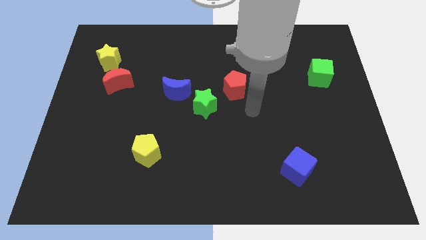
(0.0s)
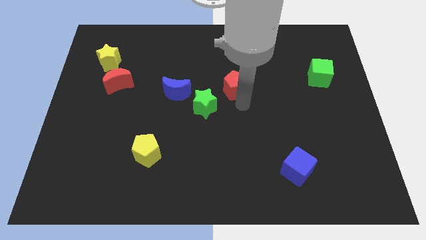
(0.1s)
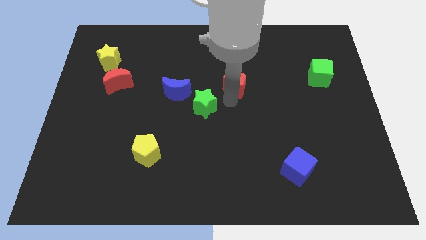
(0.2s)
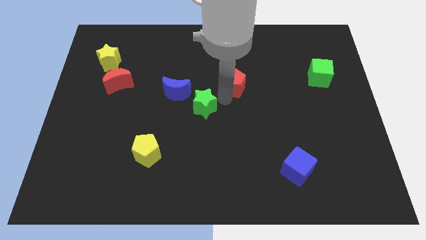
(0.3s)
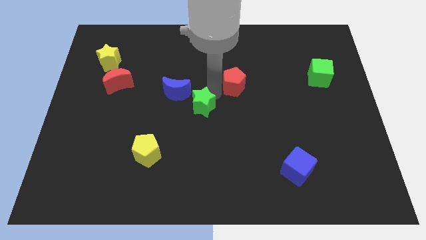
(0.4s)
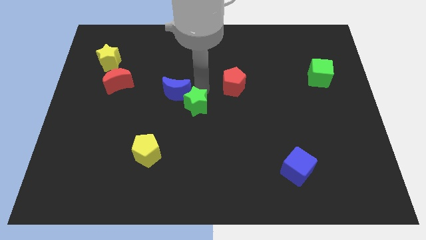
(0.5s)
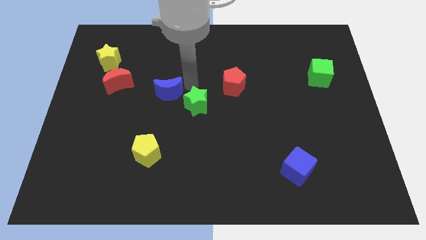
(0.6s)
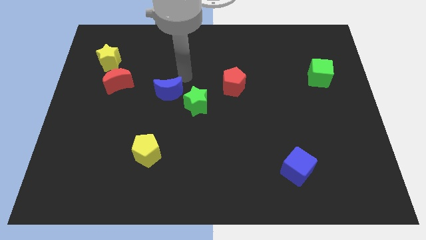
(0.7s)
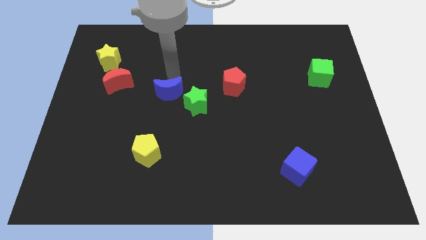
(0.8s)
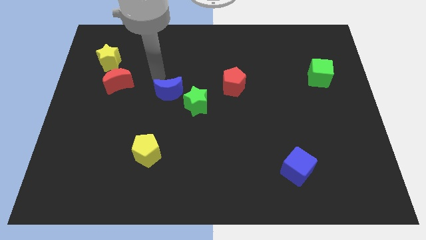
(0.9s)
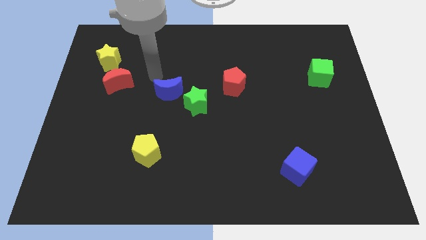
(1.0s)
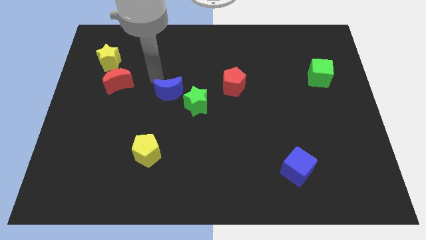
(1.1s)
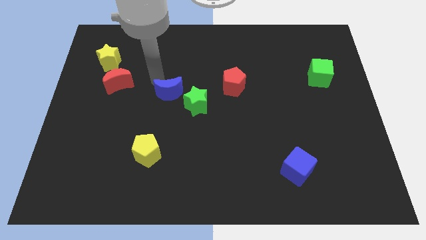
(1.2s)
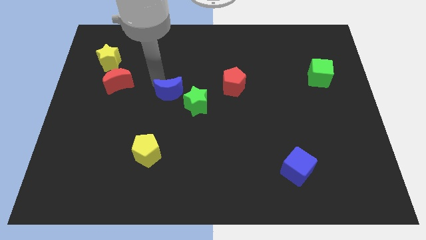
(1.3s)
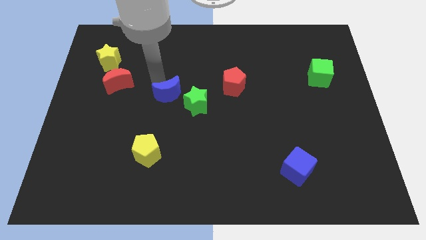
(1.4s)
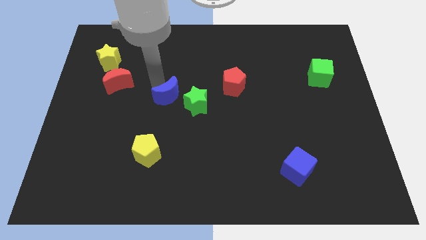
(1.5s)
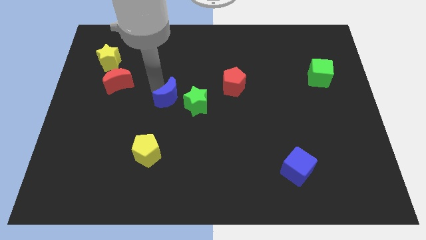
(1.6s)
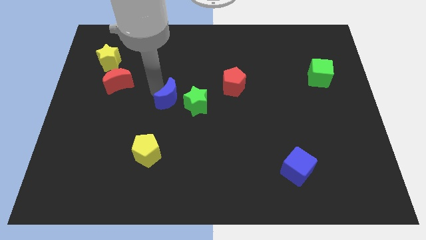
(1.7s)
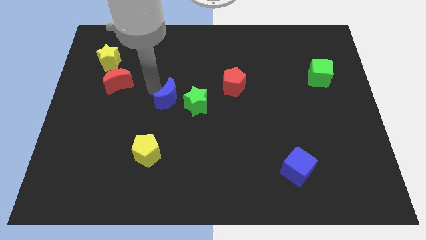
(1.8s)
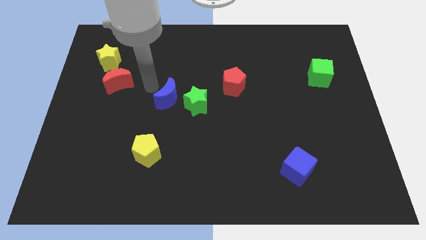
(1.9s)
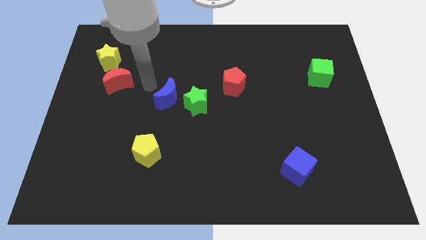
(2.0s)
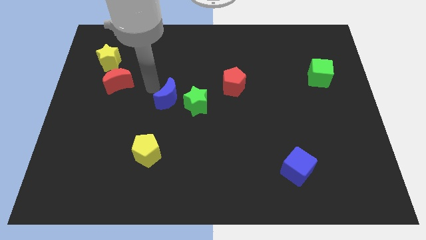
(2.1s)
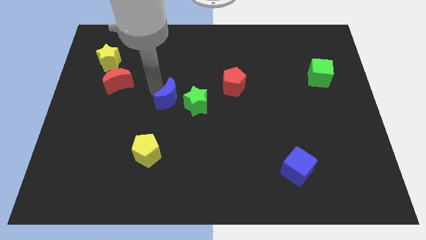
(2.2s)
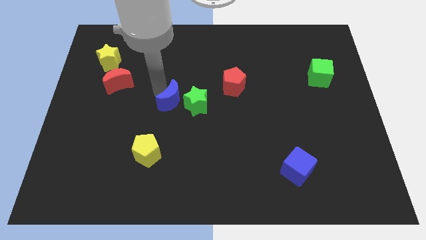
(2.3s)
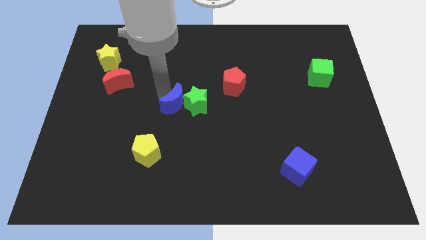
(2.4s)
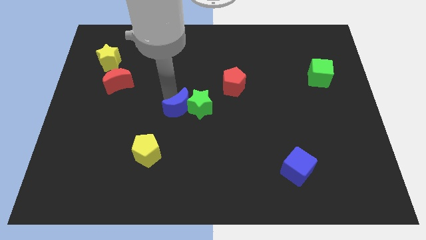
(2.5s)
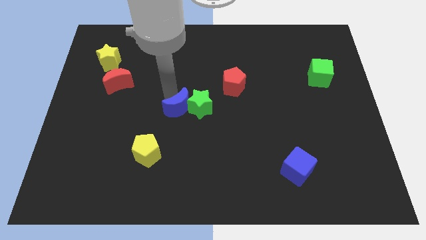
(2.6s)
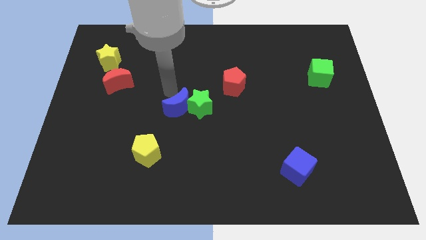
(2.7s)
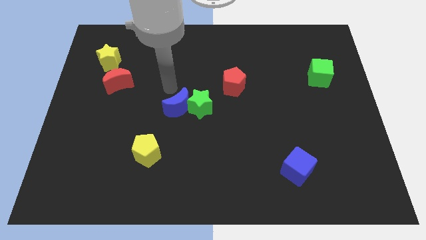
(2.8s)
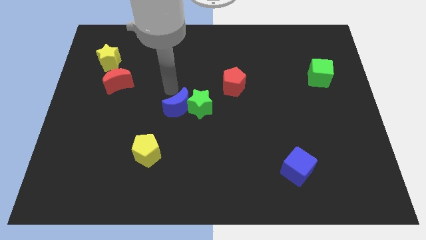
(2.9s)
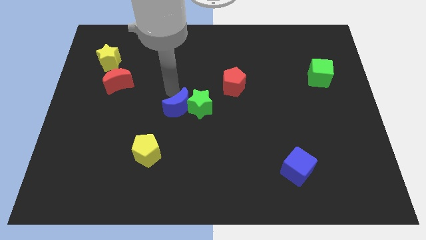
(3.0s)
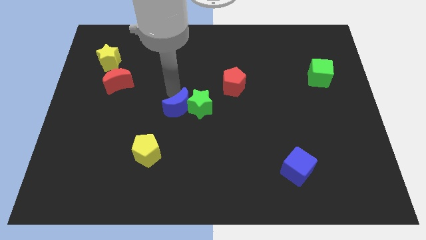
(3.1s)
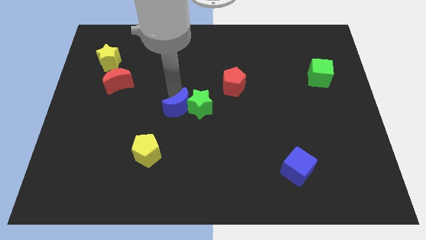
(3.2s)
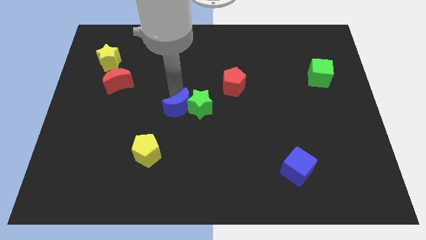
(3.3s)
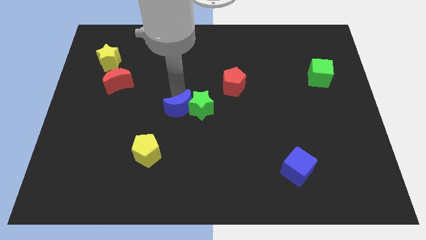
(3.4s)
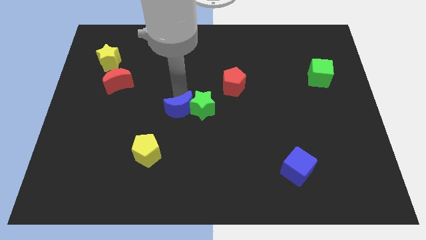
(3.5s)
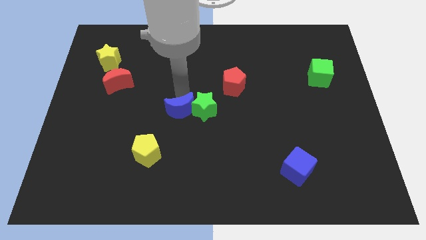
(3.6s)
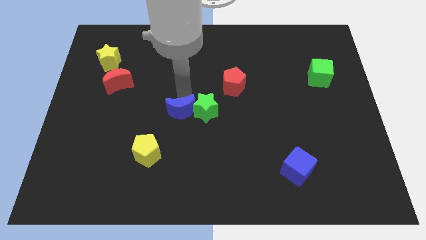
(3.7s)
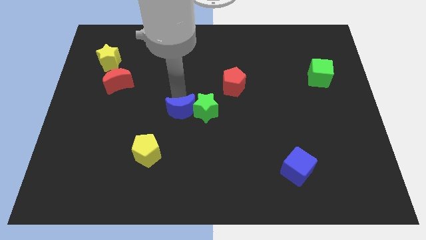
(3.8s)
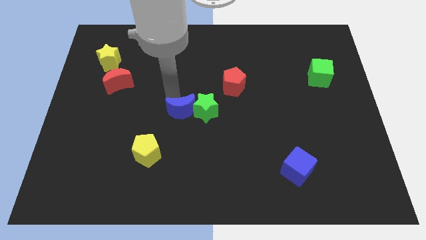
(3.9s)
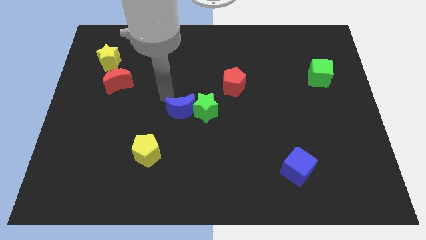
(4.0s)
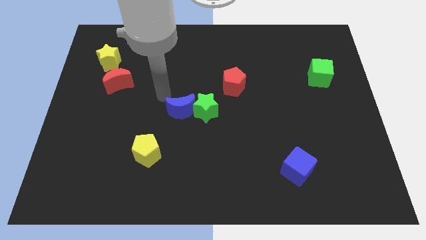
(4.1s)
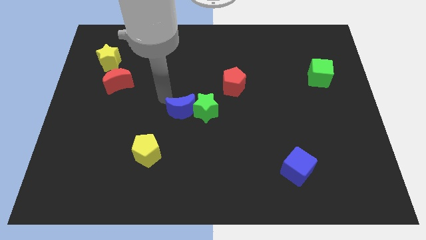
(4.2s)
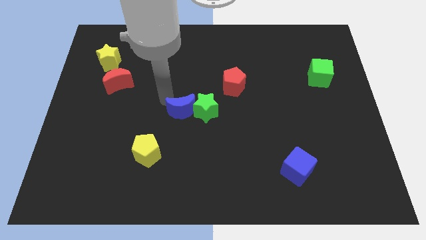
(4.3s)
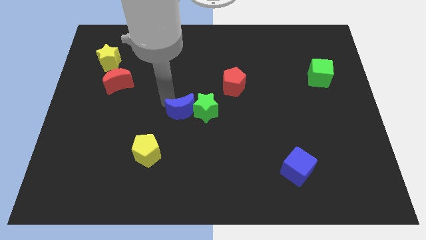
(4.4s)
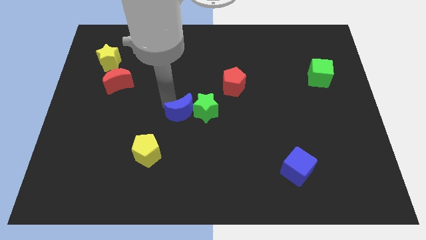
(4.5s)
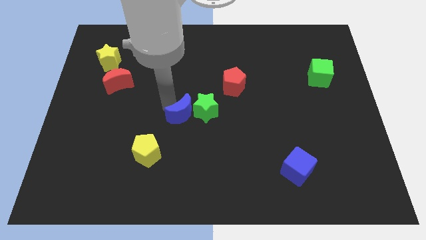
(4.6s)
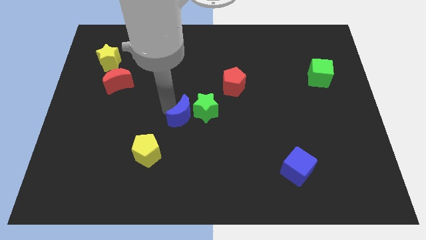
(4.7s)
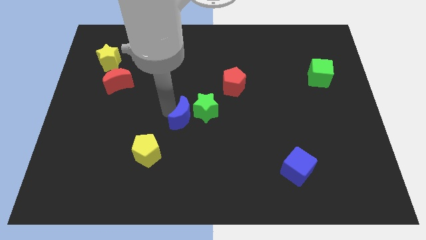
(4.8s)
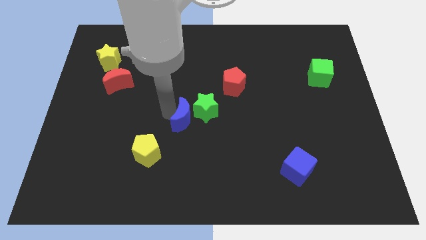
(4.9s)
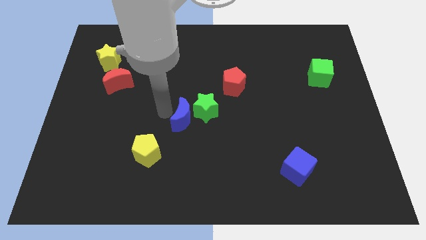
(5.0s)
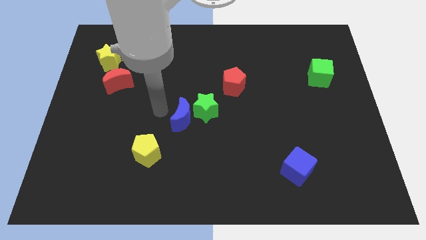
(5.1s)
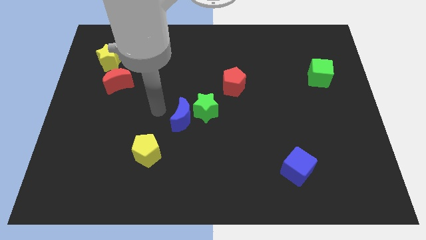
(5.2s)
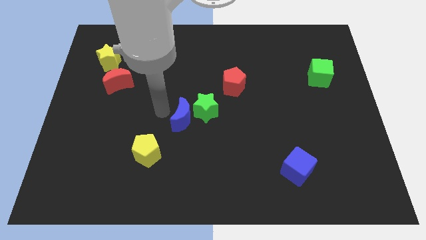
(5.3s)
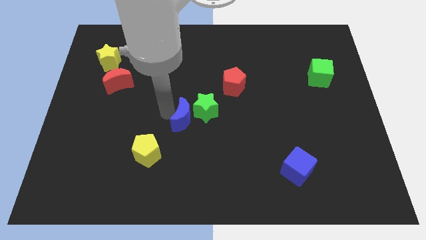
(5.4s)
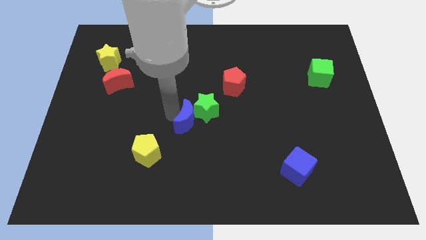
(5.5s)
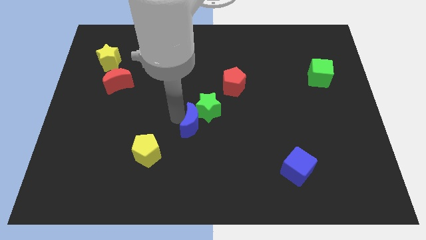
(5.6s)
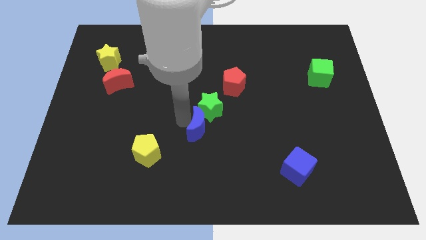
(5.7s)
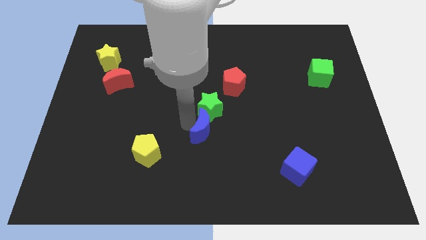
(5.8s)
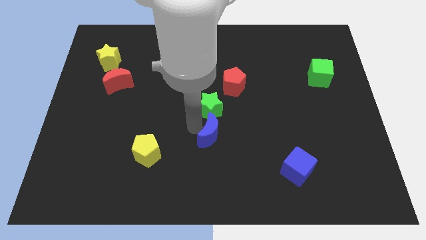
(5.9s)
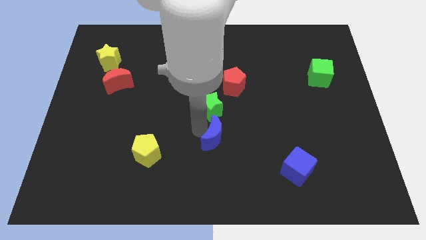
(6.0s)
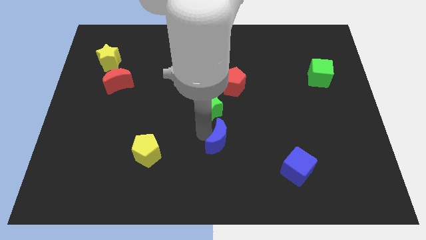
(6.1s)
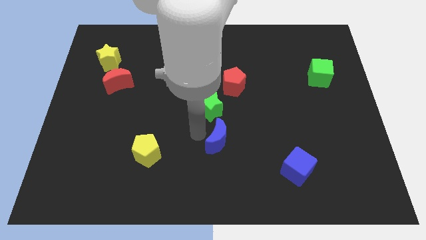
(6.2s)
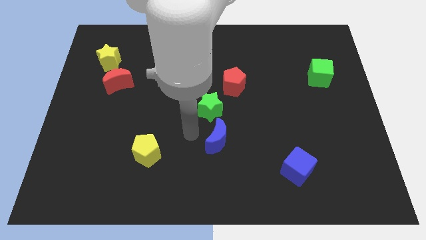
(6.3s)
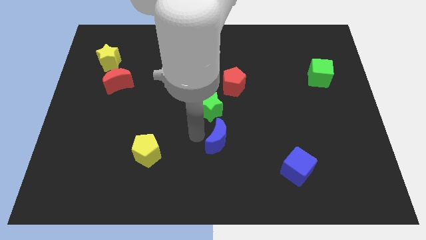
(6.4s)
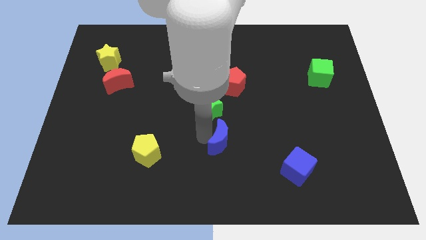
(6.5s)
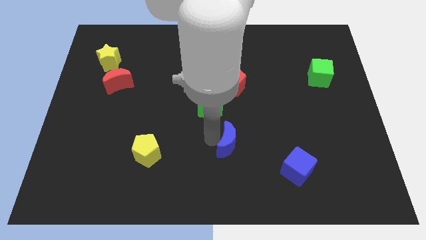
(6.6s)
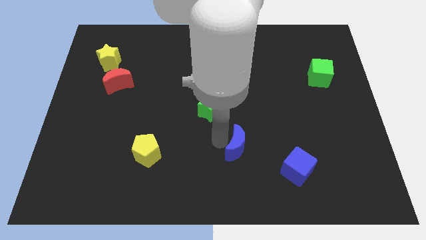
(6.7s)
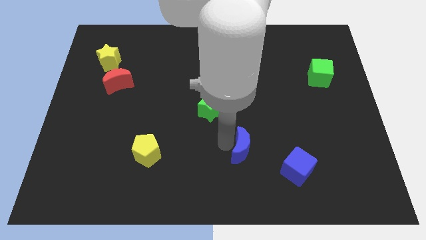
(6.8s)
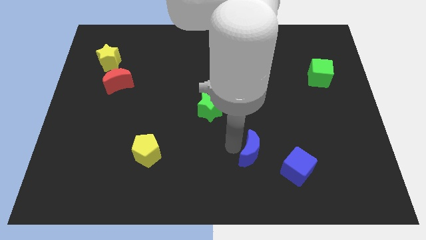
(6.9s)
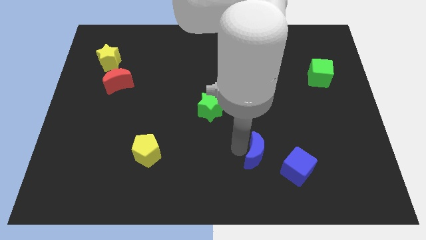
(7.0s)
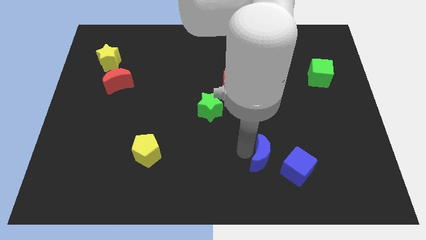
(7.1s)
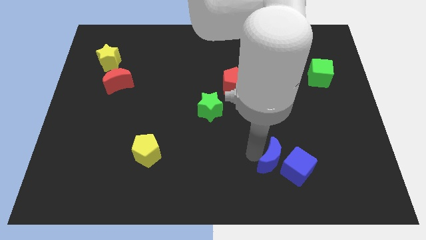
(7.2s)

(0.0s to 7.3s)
put the blue moon towards the blue cube

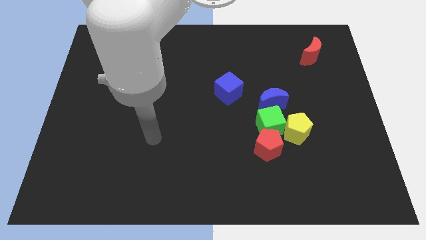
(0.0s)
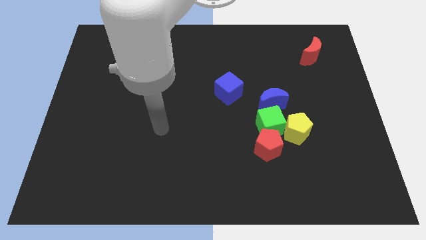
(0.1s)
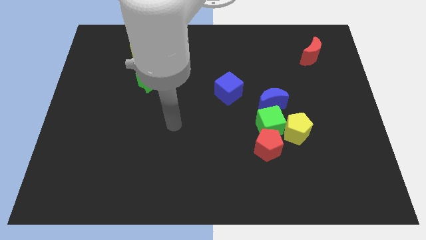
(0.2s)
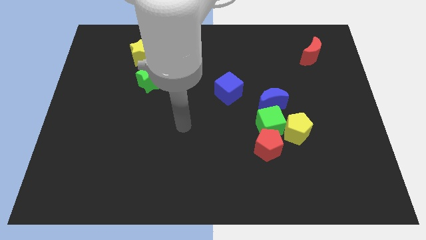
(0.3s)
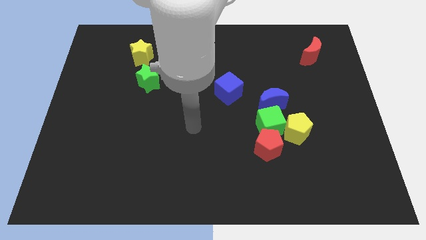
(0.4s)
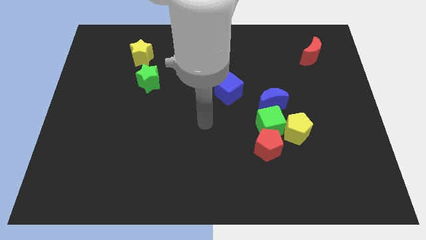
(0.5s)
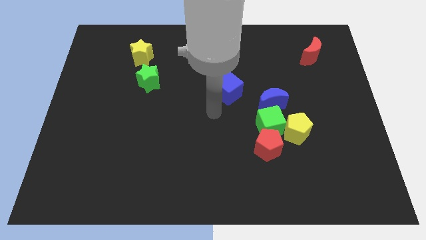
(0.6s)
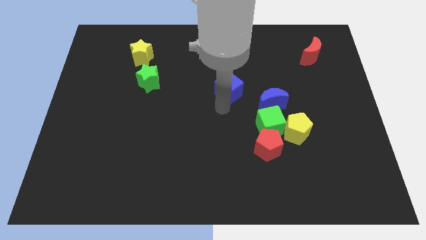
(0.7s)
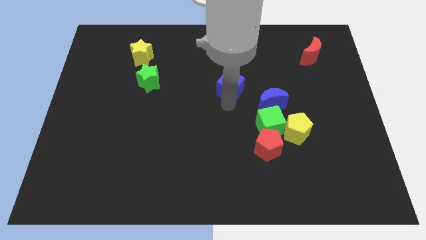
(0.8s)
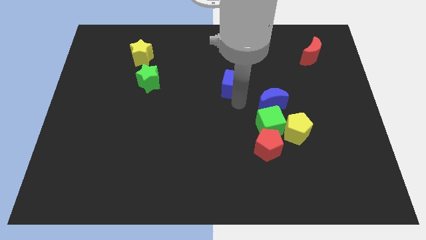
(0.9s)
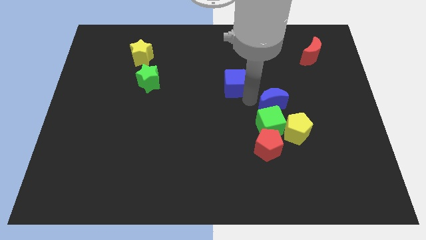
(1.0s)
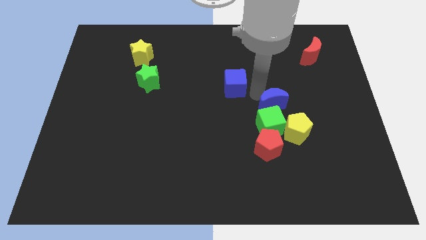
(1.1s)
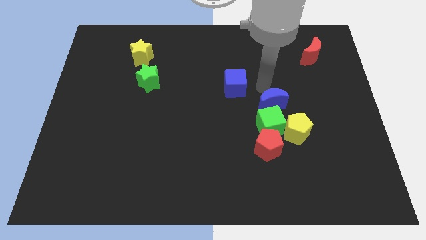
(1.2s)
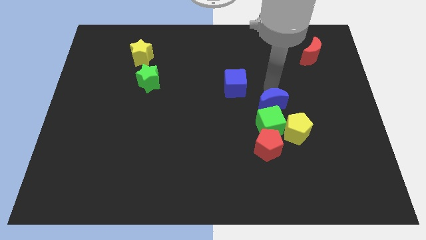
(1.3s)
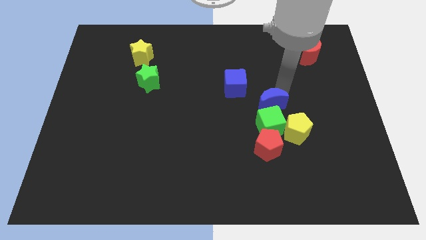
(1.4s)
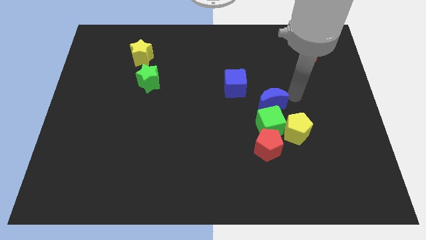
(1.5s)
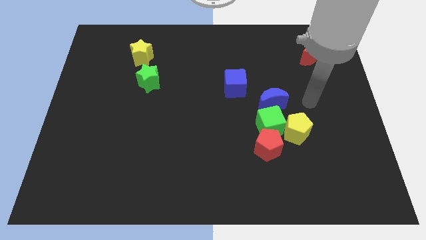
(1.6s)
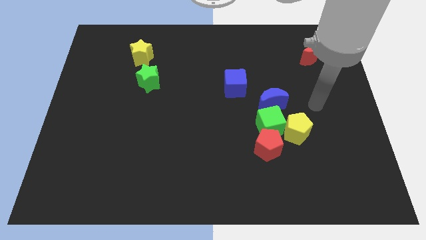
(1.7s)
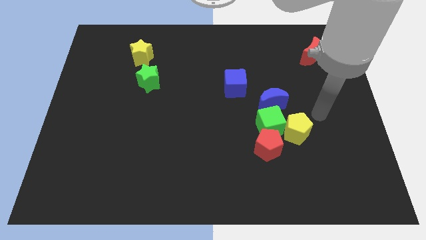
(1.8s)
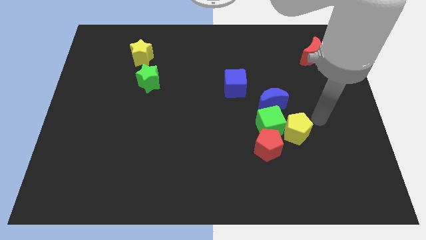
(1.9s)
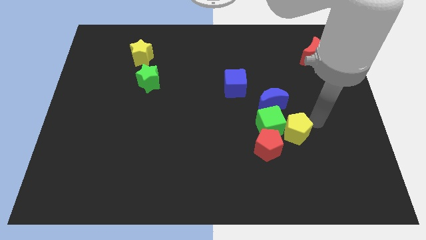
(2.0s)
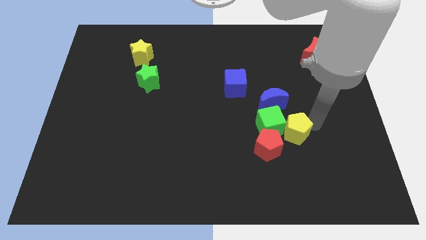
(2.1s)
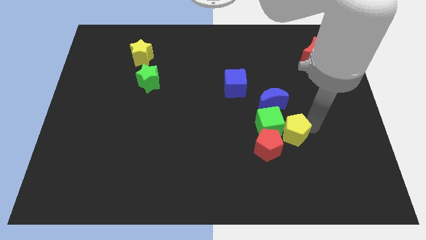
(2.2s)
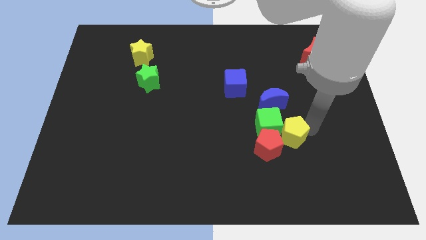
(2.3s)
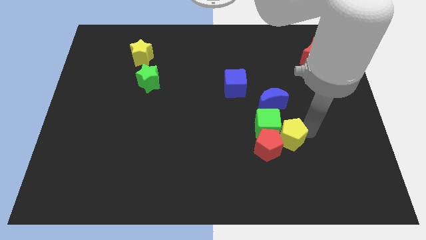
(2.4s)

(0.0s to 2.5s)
move the yellow pentagon next to the red pentagon
